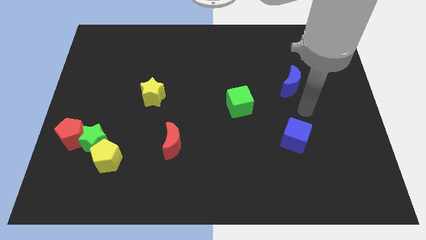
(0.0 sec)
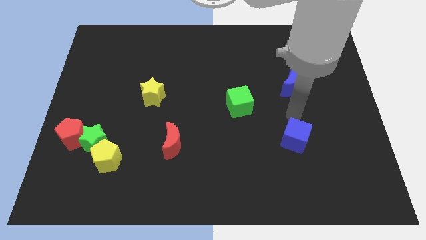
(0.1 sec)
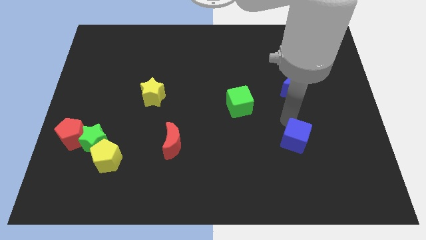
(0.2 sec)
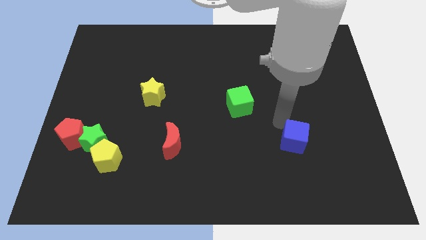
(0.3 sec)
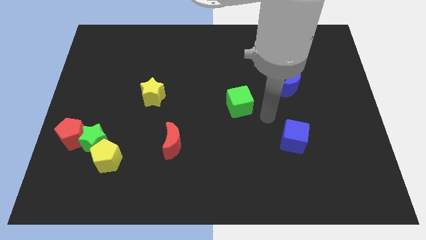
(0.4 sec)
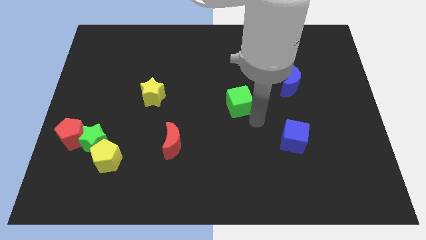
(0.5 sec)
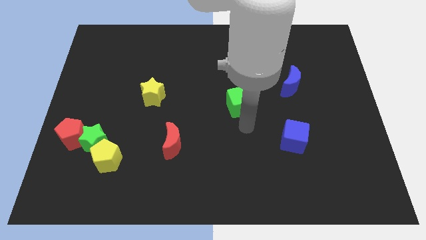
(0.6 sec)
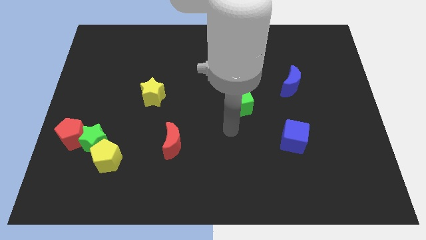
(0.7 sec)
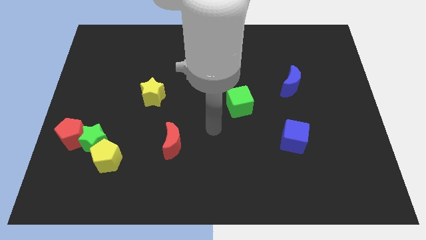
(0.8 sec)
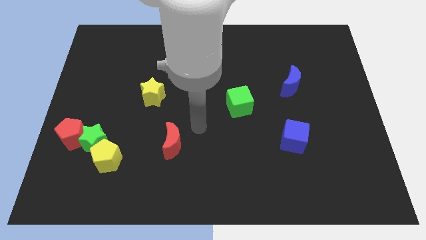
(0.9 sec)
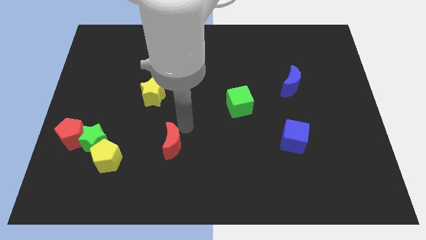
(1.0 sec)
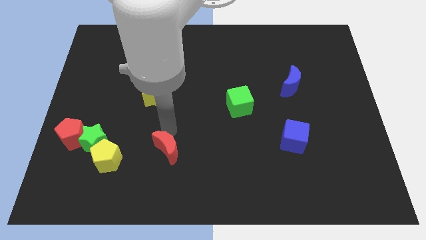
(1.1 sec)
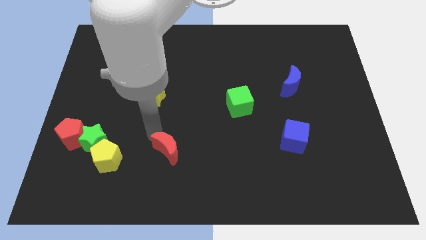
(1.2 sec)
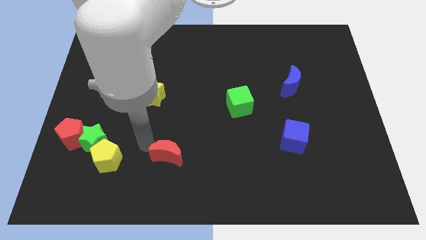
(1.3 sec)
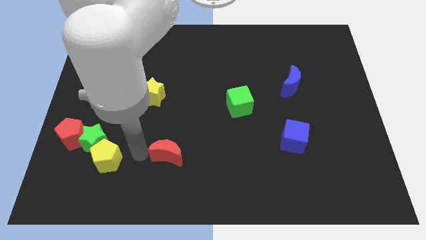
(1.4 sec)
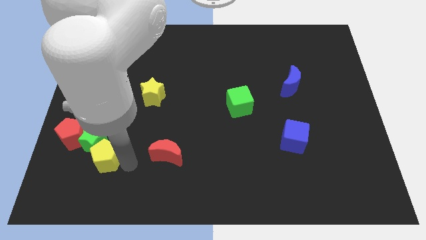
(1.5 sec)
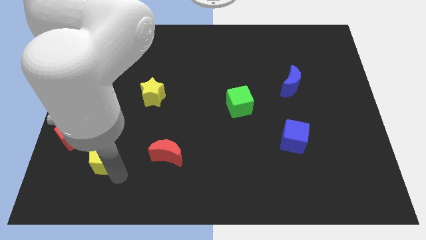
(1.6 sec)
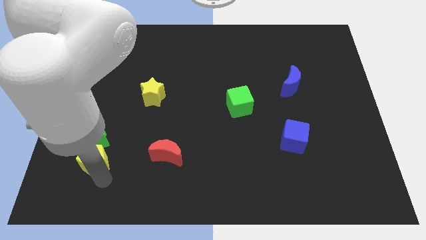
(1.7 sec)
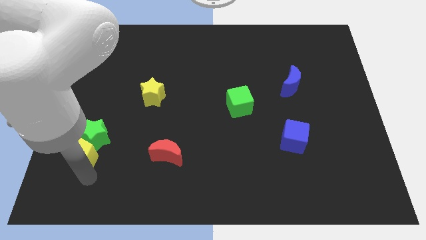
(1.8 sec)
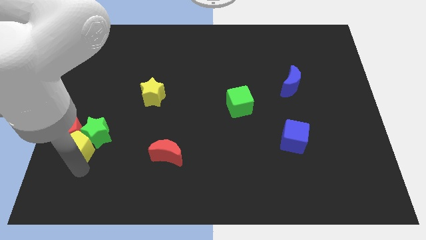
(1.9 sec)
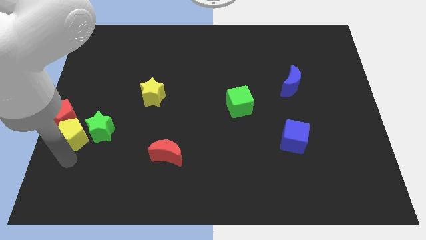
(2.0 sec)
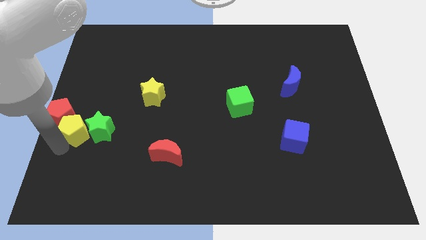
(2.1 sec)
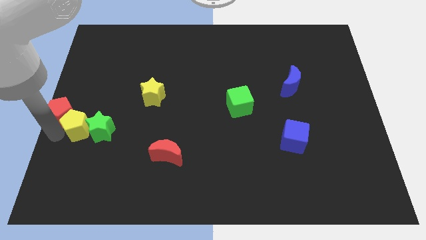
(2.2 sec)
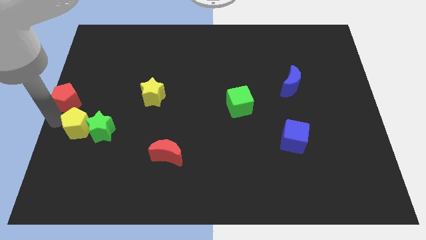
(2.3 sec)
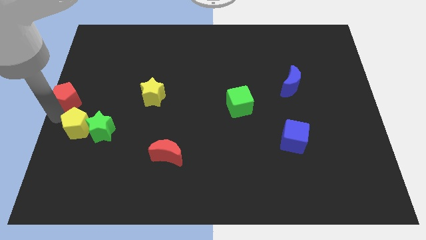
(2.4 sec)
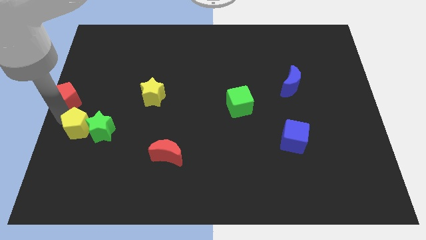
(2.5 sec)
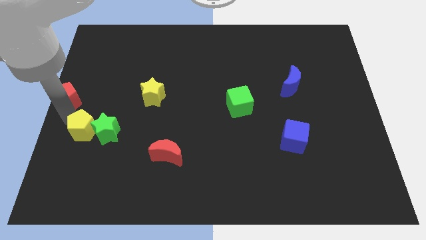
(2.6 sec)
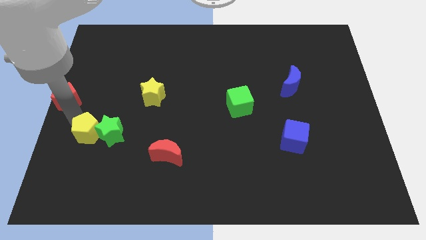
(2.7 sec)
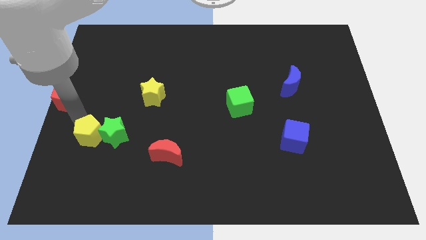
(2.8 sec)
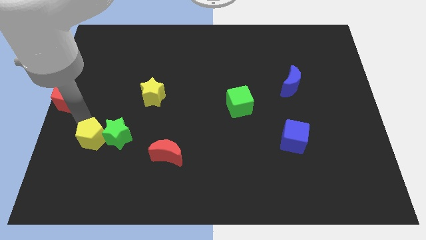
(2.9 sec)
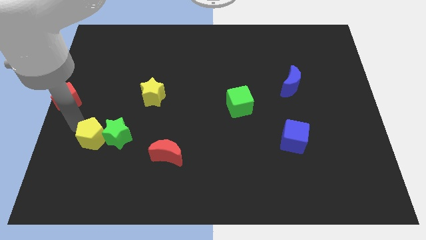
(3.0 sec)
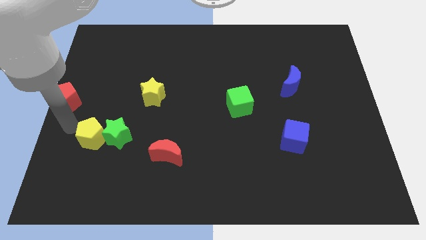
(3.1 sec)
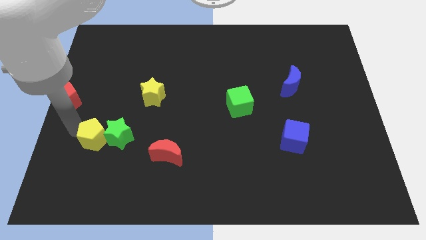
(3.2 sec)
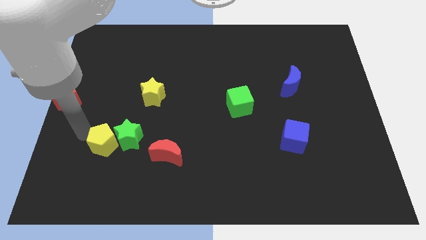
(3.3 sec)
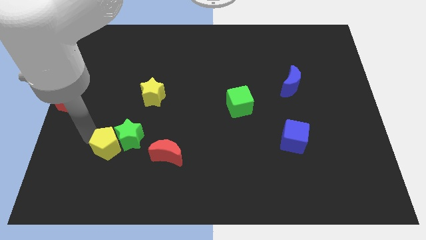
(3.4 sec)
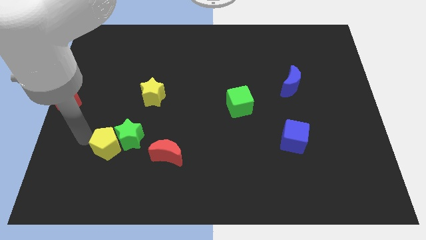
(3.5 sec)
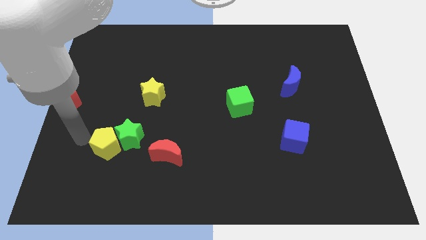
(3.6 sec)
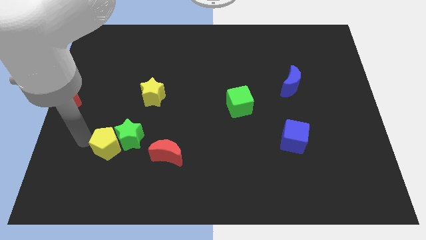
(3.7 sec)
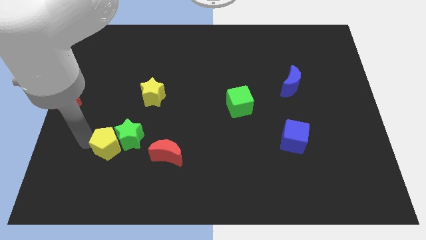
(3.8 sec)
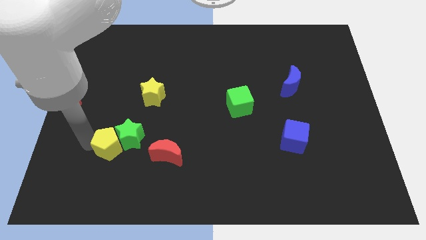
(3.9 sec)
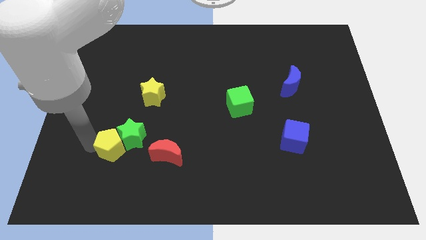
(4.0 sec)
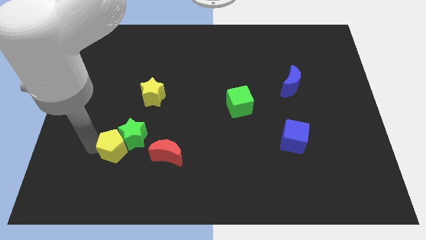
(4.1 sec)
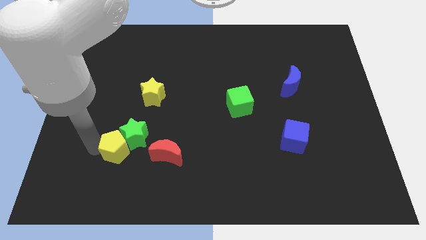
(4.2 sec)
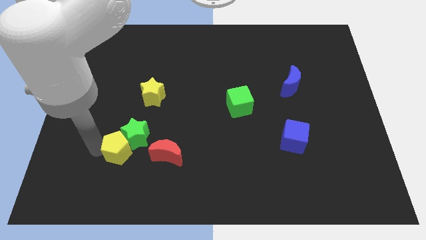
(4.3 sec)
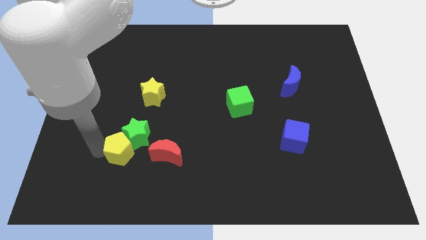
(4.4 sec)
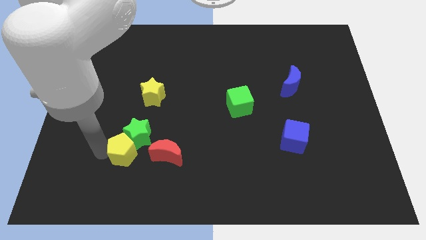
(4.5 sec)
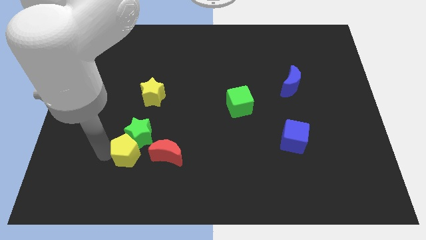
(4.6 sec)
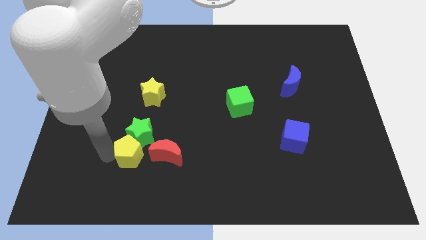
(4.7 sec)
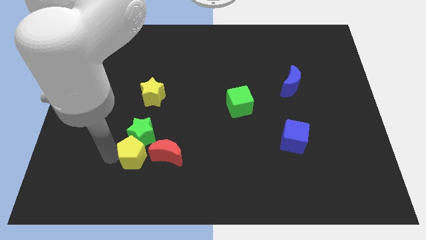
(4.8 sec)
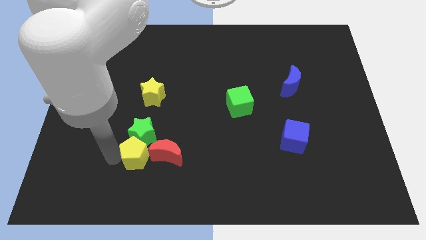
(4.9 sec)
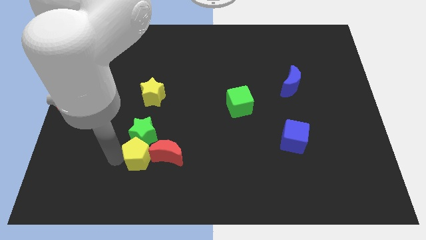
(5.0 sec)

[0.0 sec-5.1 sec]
push the yellow pentagon next to the red moon

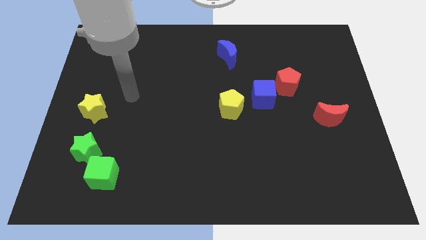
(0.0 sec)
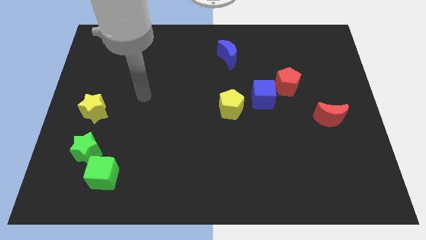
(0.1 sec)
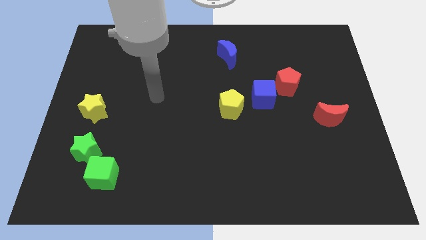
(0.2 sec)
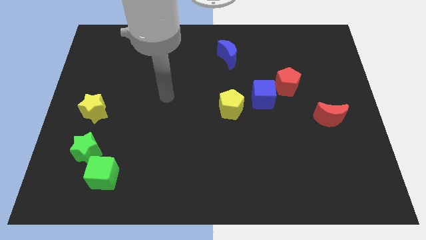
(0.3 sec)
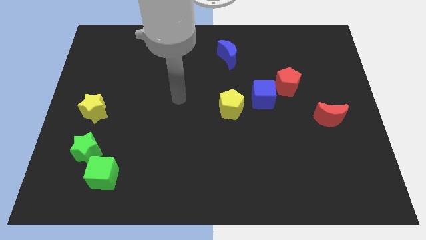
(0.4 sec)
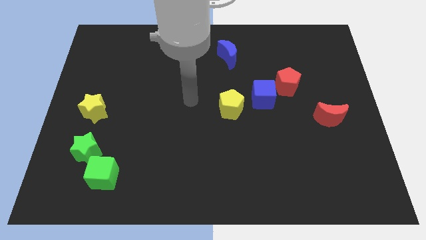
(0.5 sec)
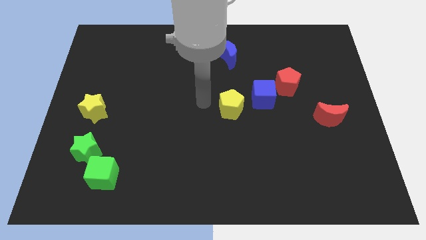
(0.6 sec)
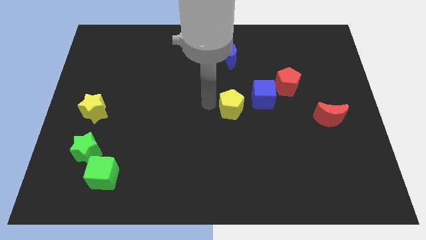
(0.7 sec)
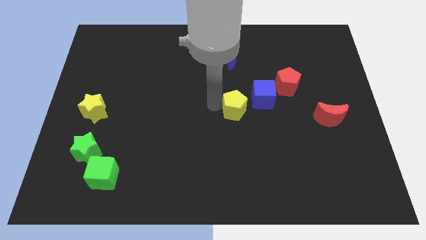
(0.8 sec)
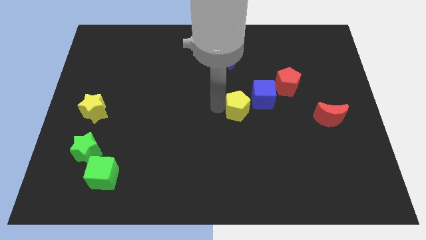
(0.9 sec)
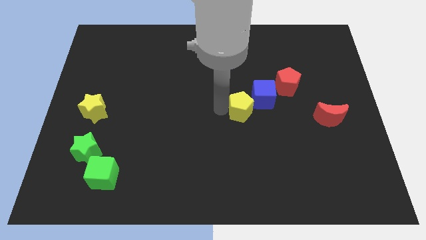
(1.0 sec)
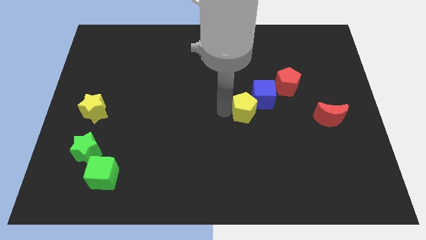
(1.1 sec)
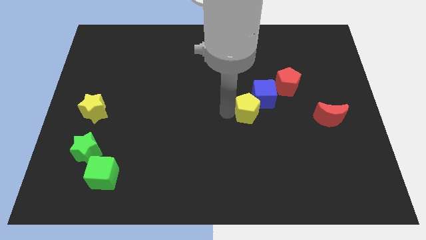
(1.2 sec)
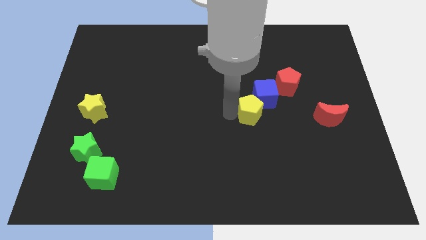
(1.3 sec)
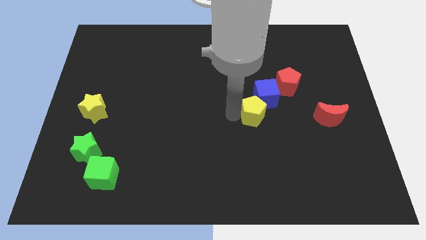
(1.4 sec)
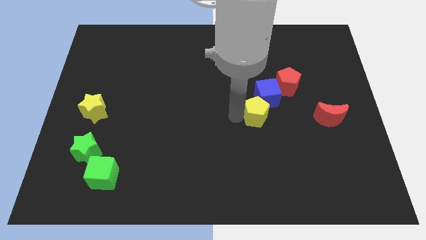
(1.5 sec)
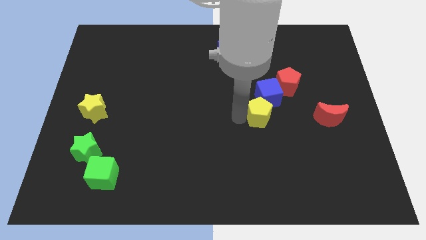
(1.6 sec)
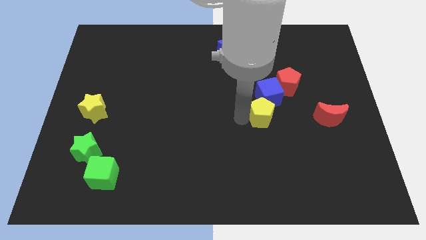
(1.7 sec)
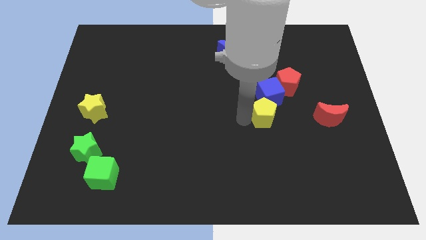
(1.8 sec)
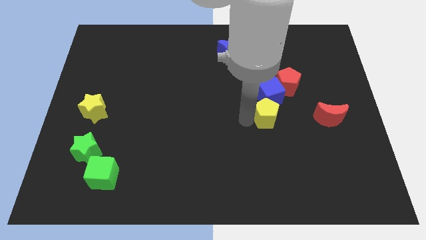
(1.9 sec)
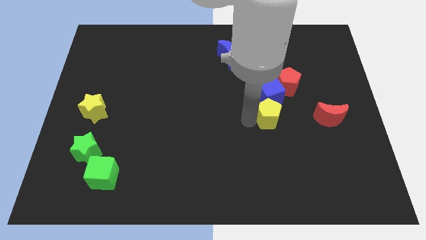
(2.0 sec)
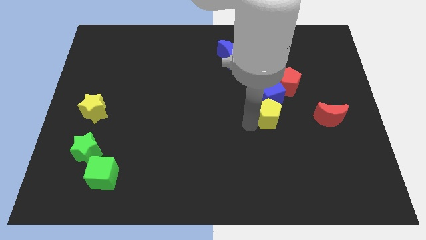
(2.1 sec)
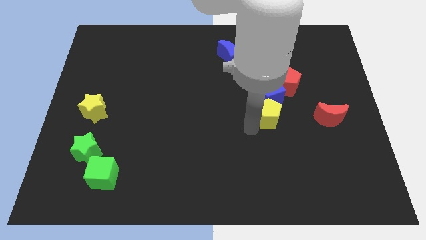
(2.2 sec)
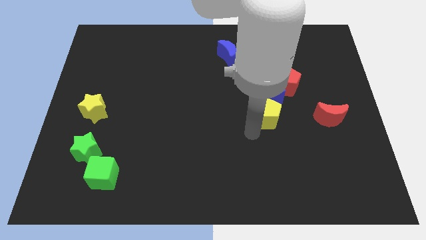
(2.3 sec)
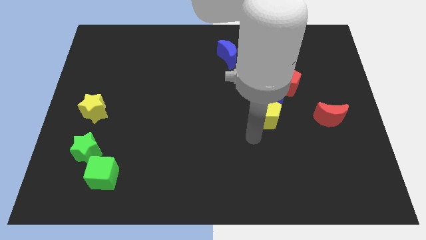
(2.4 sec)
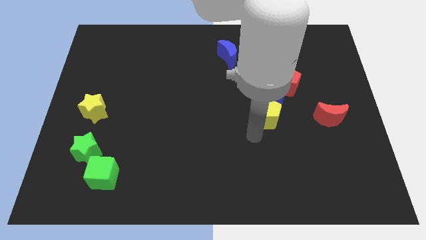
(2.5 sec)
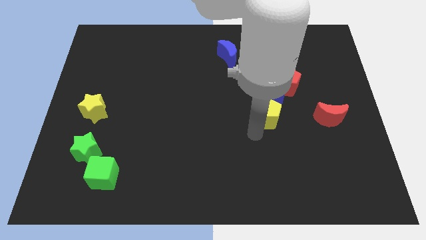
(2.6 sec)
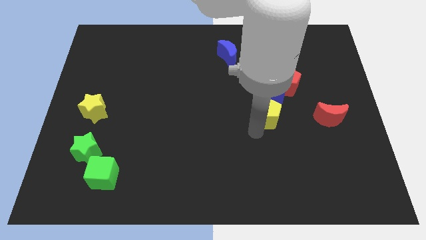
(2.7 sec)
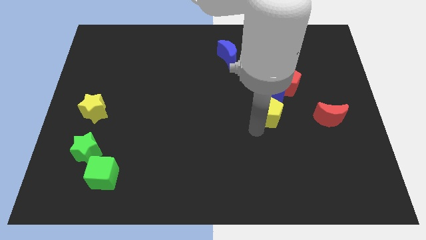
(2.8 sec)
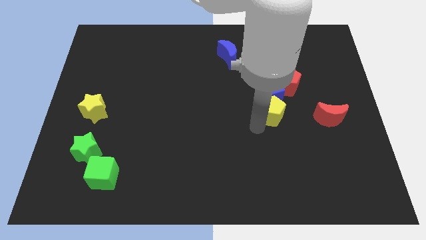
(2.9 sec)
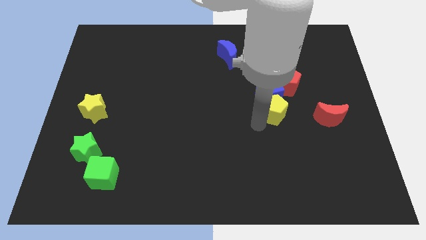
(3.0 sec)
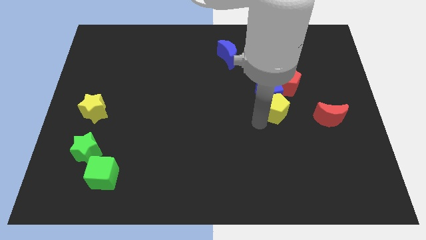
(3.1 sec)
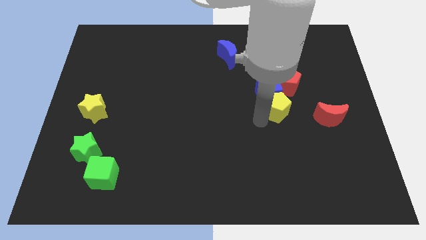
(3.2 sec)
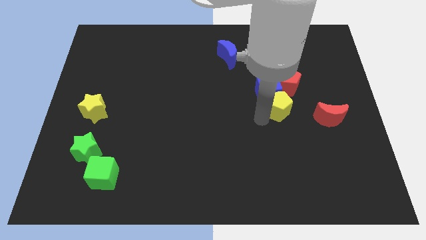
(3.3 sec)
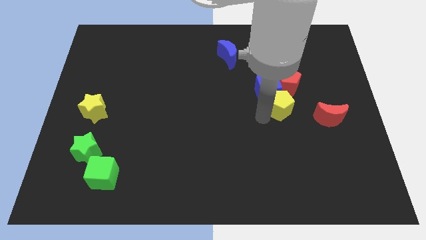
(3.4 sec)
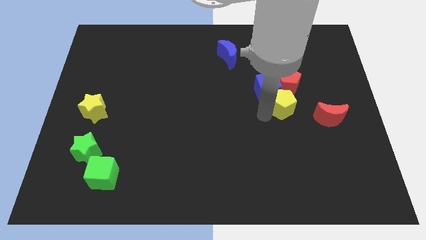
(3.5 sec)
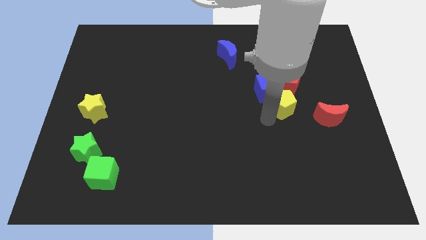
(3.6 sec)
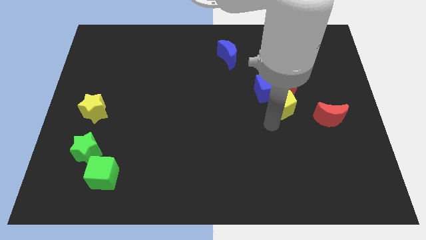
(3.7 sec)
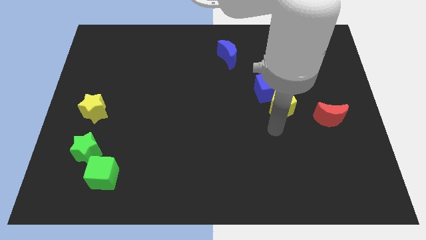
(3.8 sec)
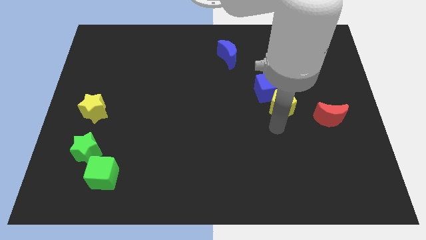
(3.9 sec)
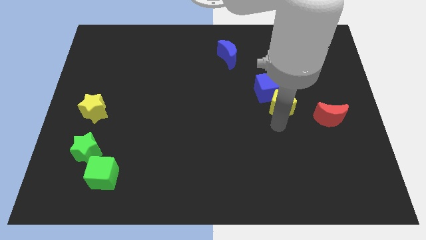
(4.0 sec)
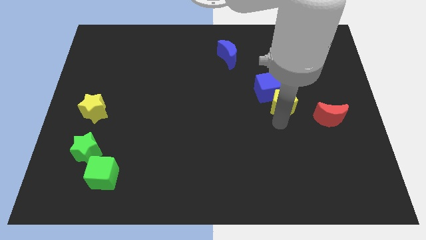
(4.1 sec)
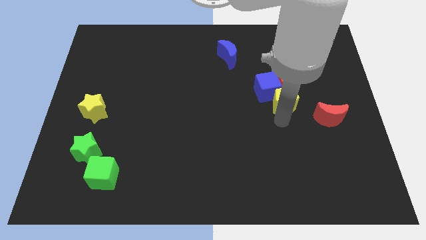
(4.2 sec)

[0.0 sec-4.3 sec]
move the yellow pentagon towards the red pentagon
